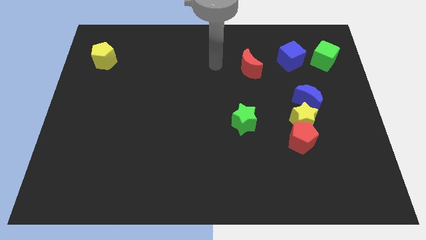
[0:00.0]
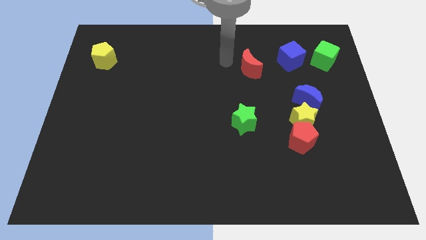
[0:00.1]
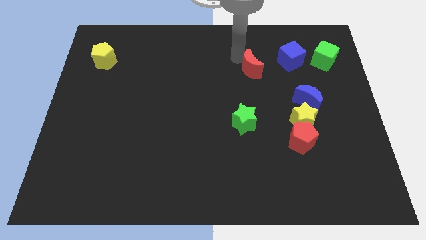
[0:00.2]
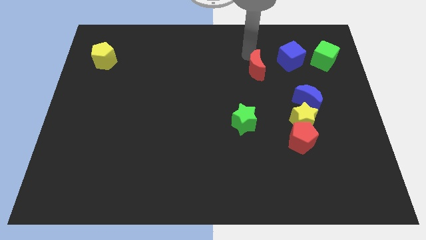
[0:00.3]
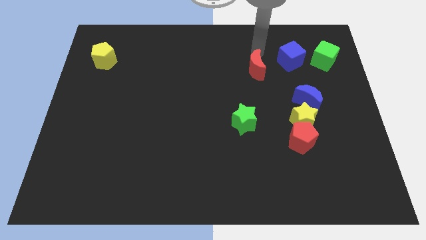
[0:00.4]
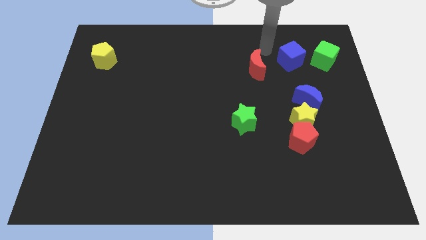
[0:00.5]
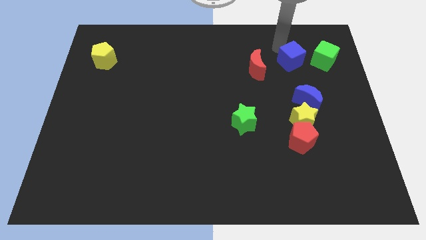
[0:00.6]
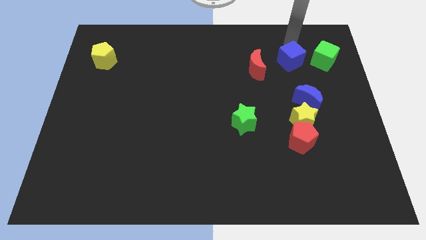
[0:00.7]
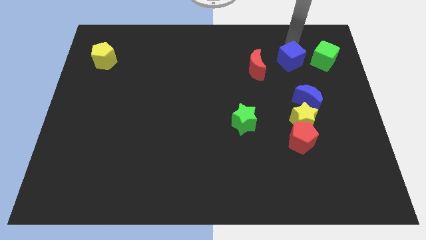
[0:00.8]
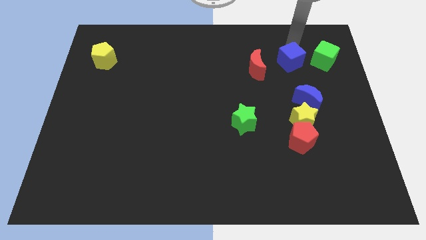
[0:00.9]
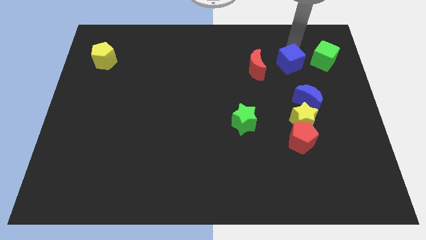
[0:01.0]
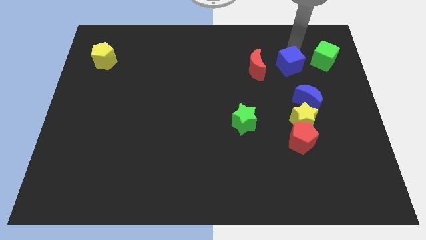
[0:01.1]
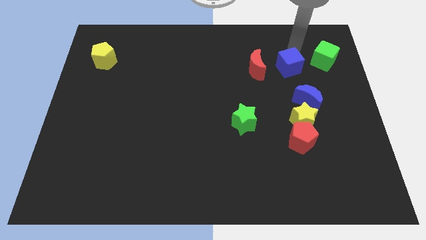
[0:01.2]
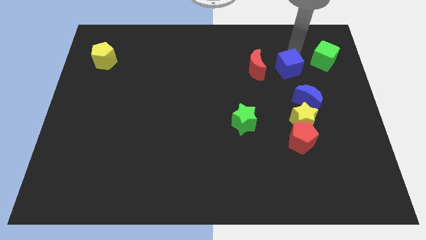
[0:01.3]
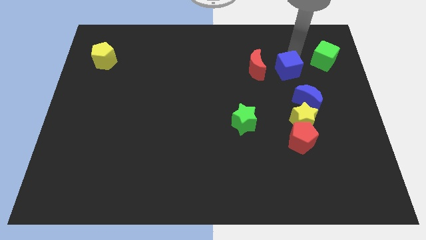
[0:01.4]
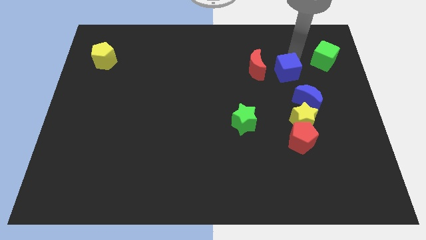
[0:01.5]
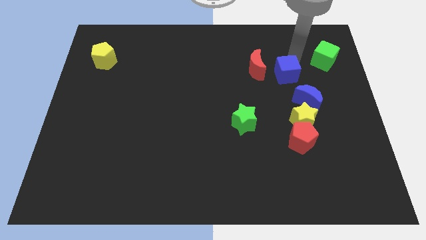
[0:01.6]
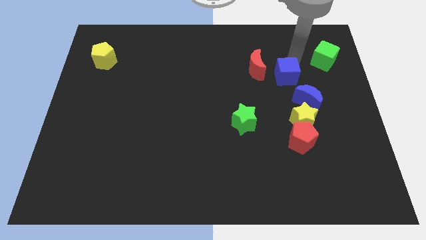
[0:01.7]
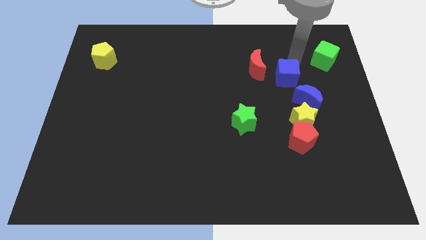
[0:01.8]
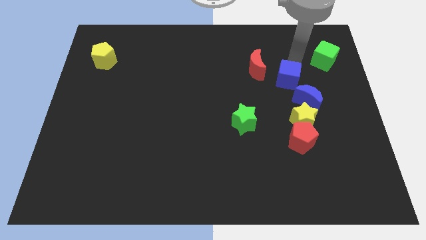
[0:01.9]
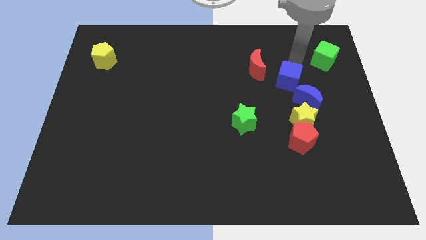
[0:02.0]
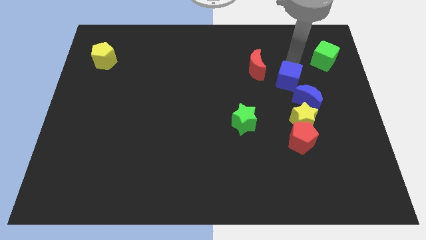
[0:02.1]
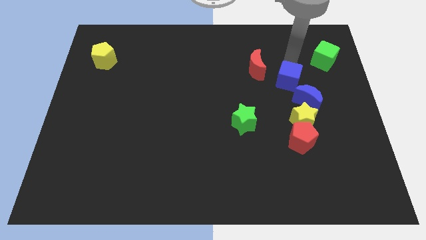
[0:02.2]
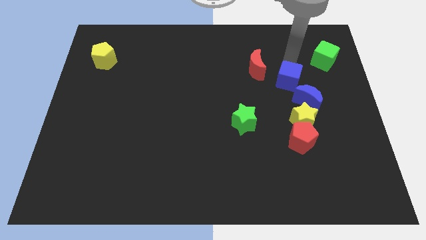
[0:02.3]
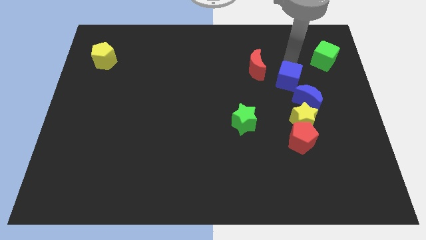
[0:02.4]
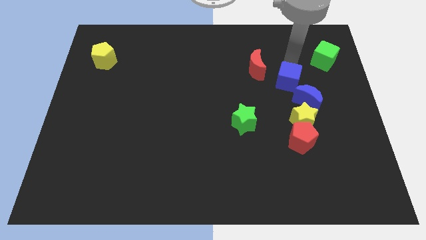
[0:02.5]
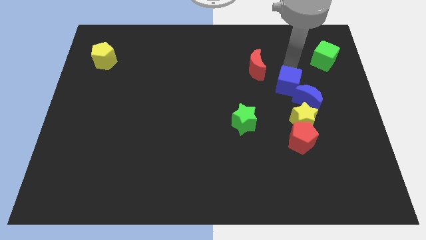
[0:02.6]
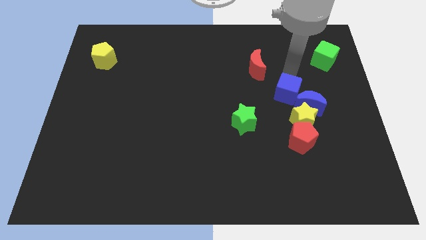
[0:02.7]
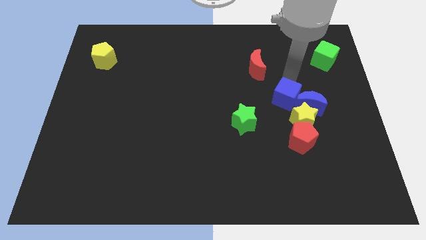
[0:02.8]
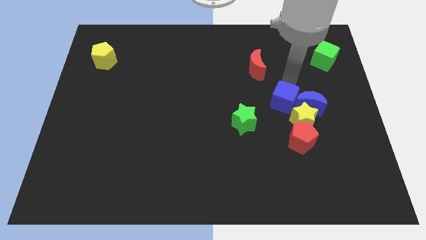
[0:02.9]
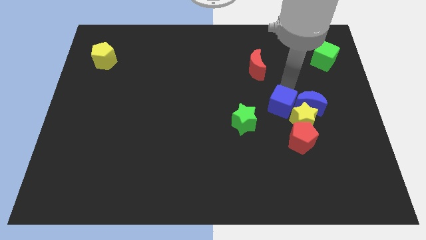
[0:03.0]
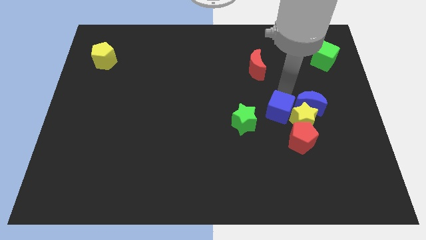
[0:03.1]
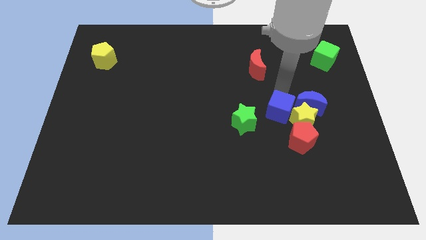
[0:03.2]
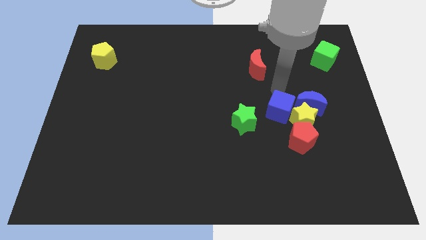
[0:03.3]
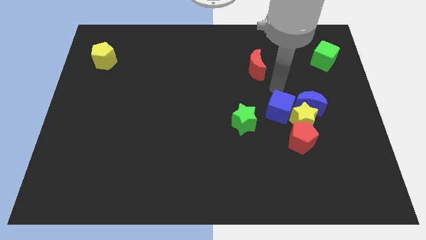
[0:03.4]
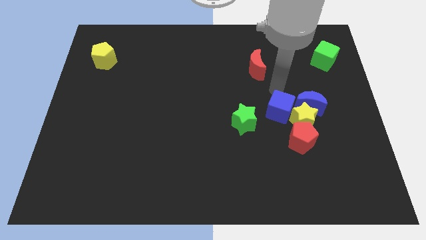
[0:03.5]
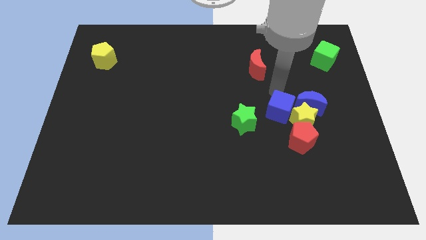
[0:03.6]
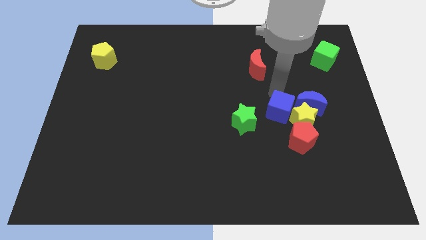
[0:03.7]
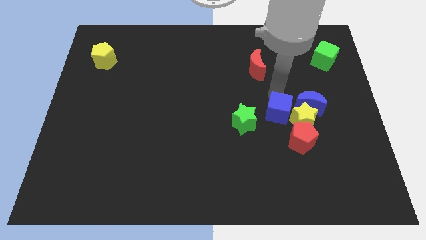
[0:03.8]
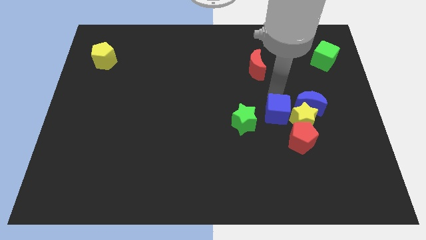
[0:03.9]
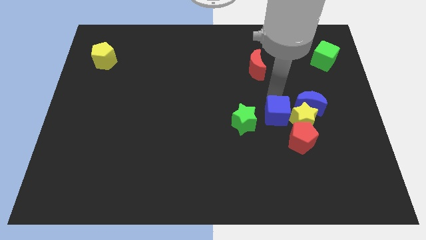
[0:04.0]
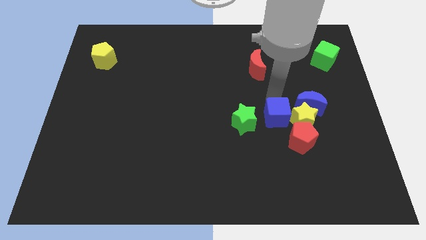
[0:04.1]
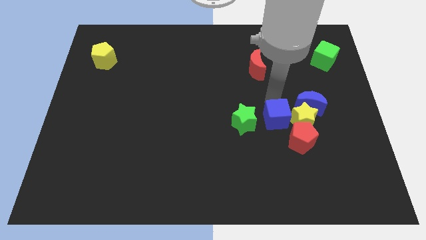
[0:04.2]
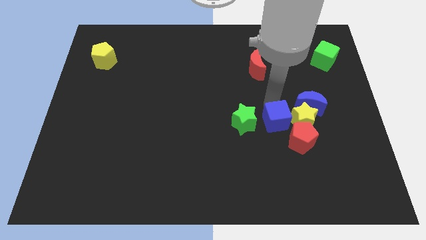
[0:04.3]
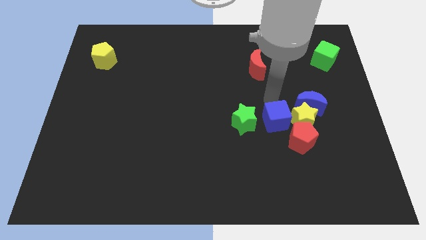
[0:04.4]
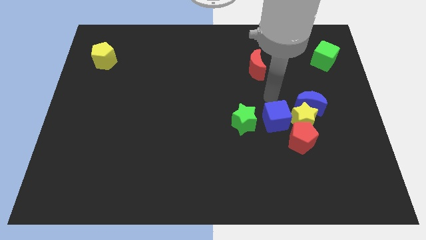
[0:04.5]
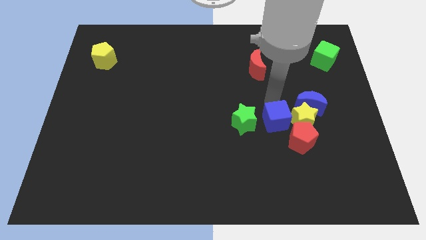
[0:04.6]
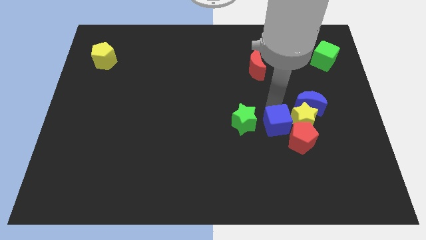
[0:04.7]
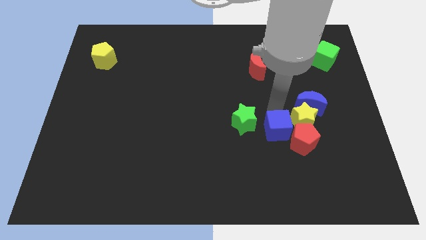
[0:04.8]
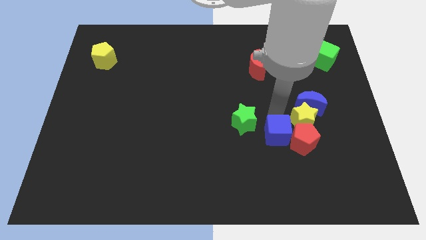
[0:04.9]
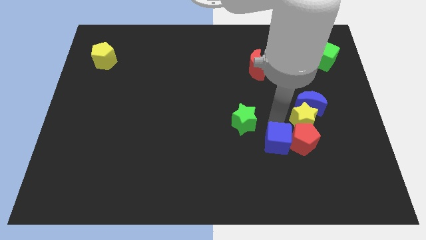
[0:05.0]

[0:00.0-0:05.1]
push the blue cube to the bottom left side of the red pentagon

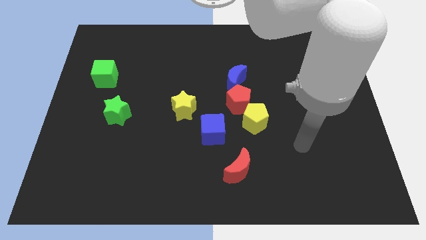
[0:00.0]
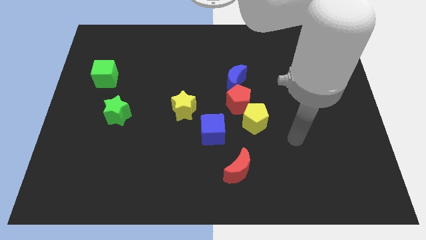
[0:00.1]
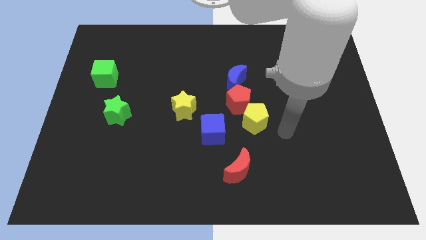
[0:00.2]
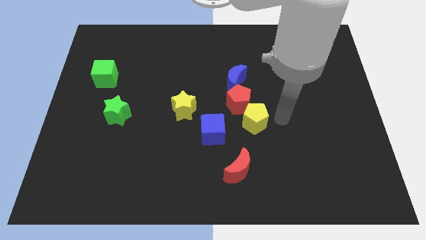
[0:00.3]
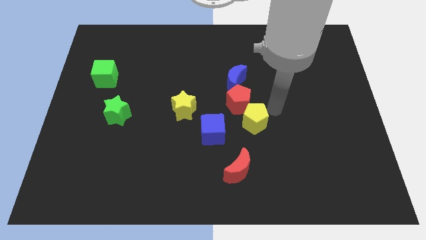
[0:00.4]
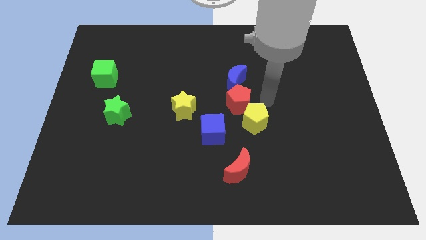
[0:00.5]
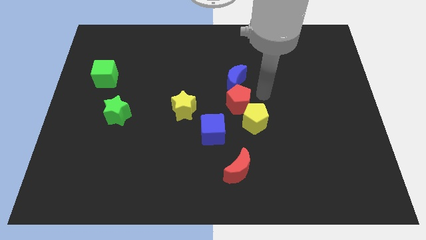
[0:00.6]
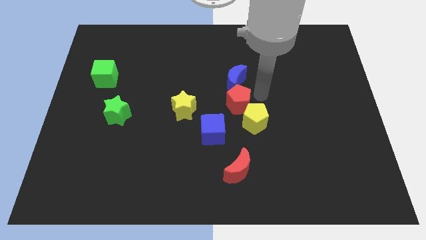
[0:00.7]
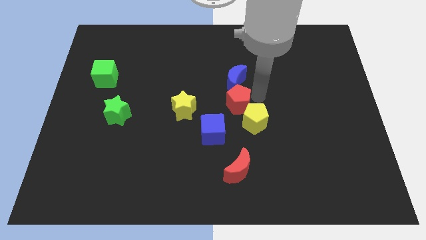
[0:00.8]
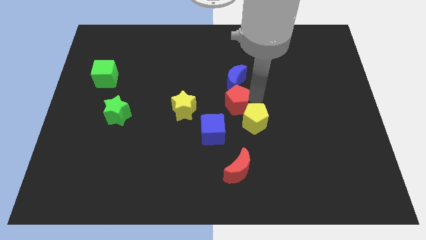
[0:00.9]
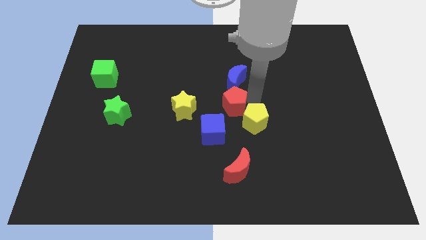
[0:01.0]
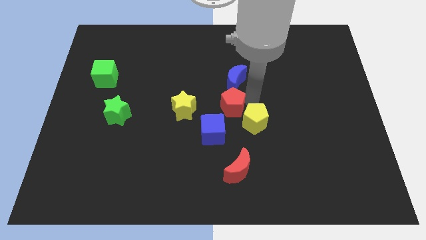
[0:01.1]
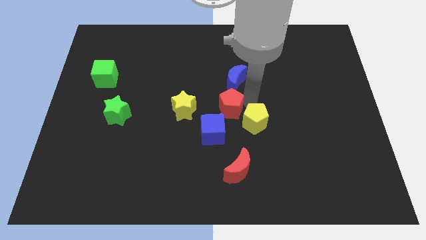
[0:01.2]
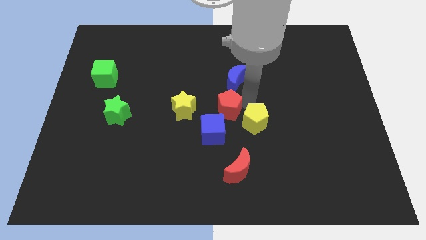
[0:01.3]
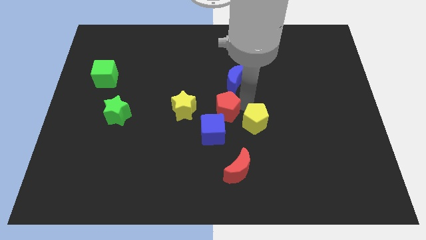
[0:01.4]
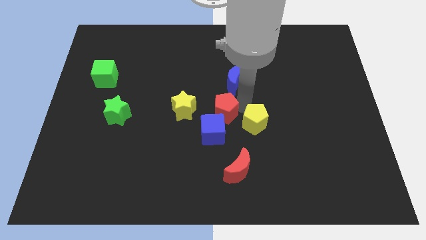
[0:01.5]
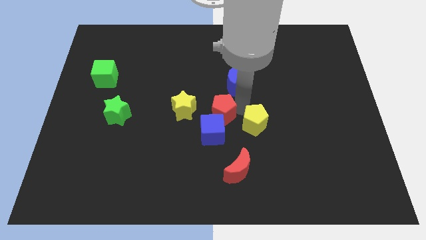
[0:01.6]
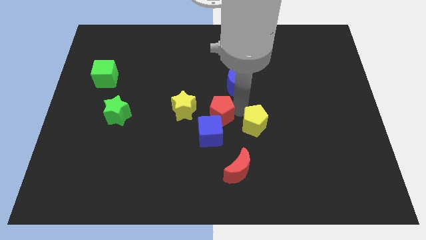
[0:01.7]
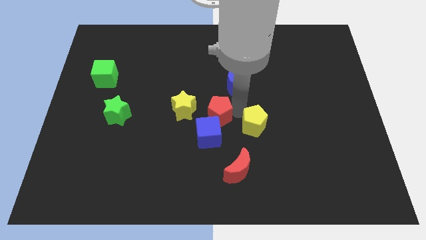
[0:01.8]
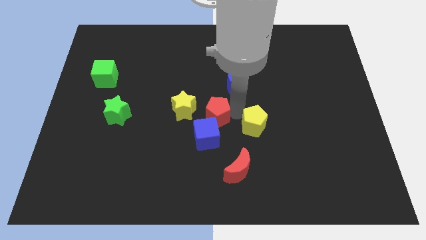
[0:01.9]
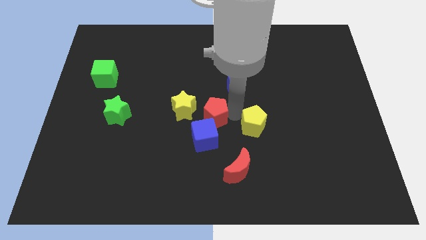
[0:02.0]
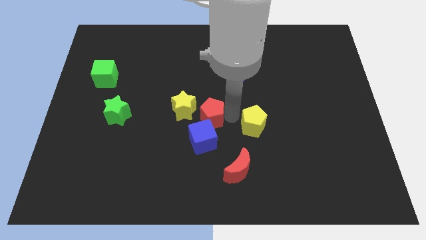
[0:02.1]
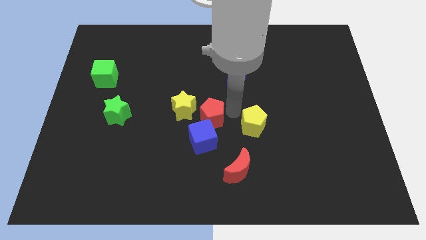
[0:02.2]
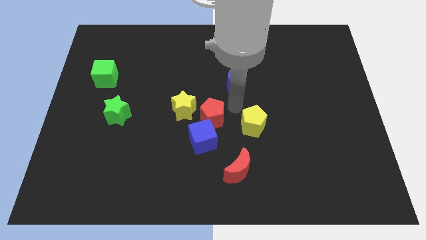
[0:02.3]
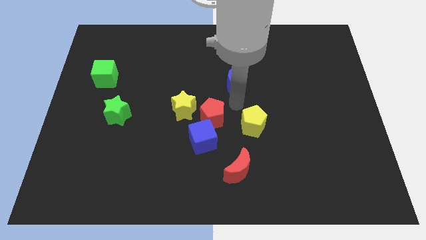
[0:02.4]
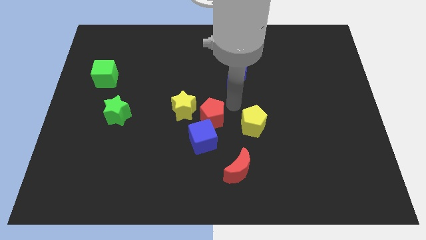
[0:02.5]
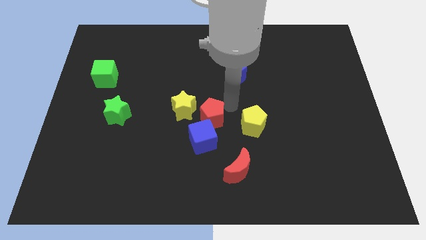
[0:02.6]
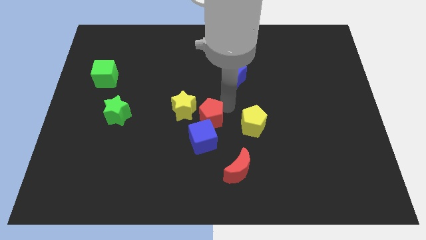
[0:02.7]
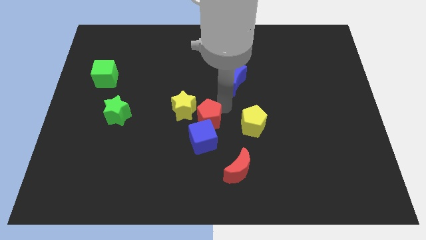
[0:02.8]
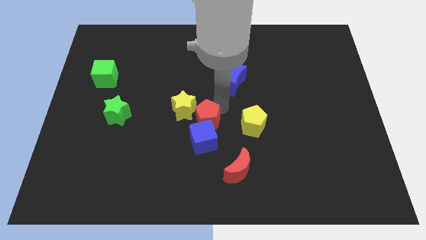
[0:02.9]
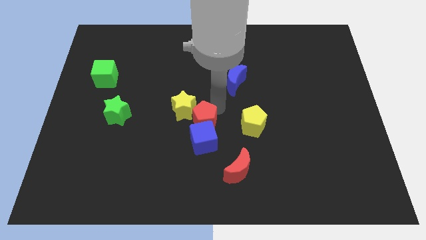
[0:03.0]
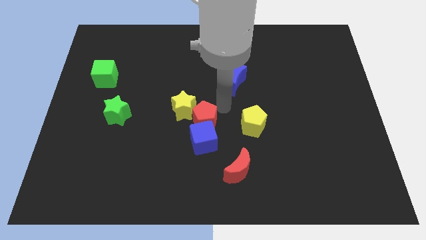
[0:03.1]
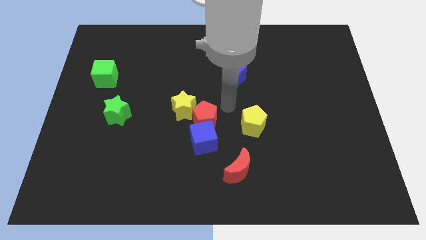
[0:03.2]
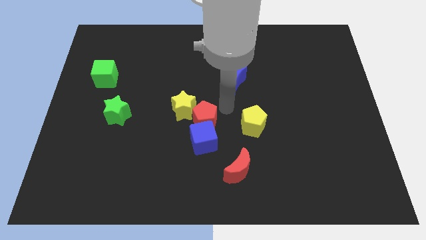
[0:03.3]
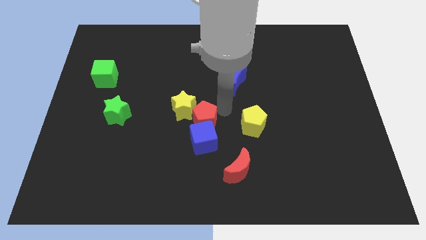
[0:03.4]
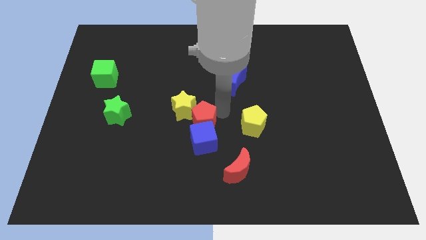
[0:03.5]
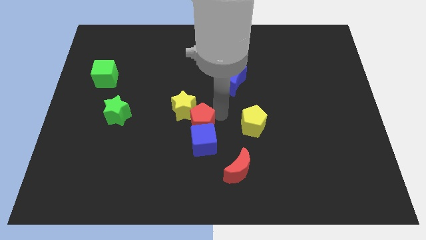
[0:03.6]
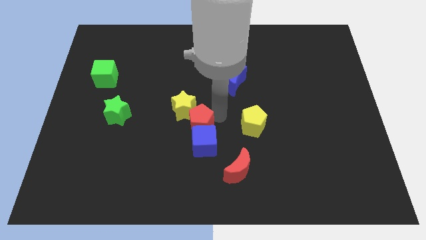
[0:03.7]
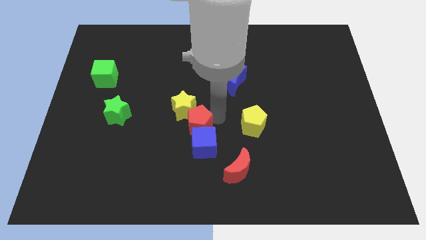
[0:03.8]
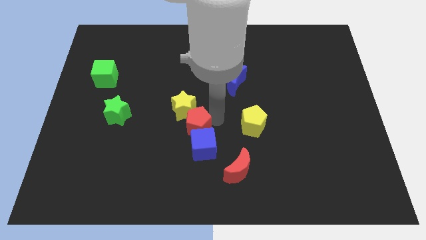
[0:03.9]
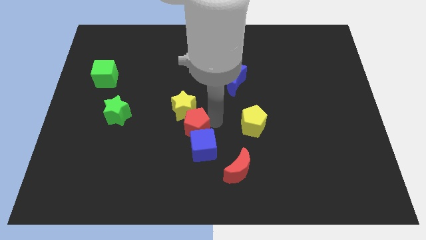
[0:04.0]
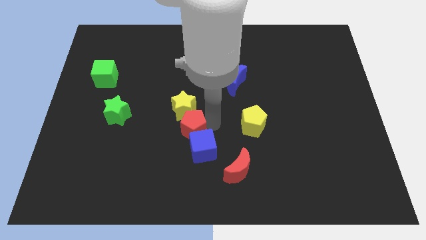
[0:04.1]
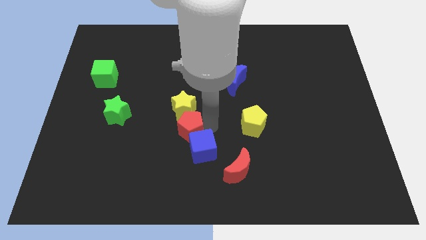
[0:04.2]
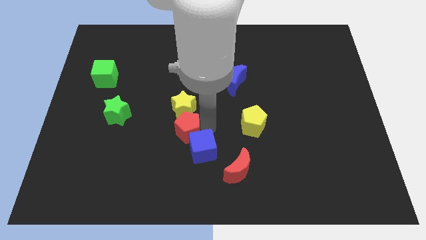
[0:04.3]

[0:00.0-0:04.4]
put the red pentagon to the bottom left side of the yellow star
